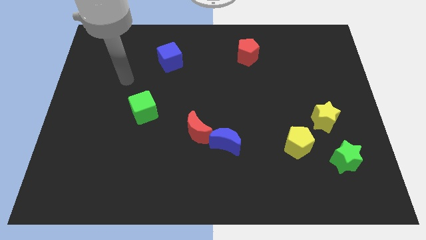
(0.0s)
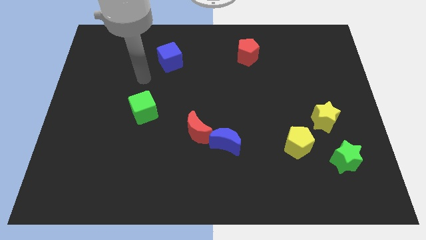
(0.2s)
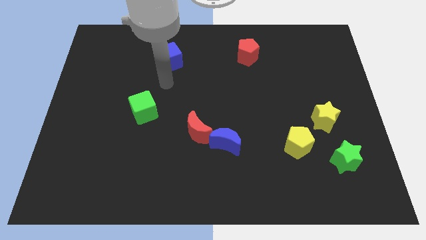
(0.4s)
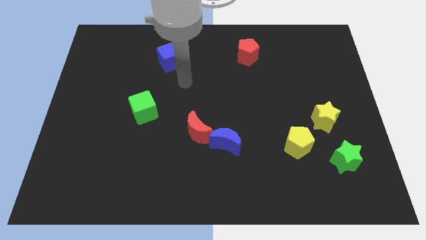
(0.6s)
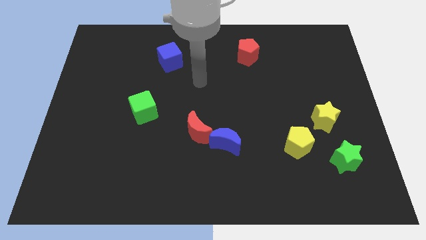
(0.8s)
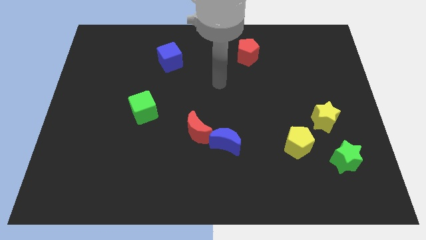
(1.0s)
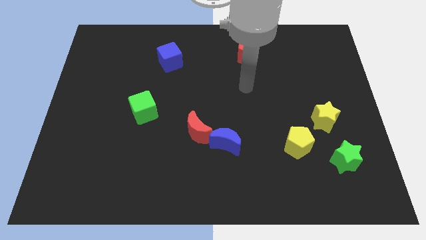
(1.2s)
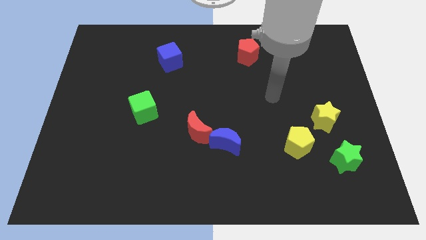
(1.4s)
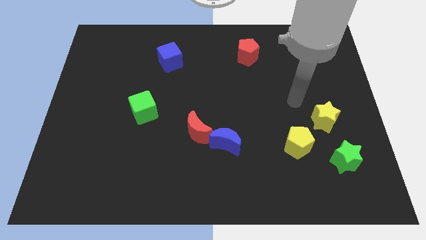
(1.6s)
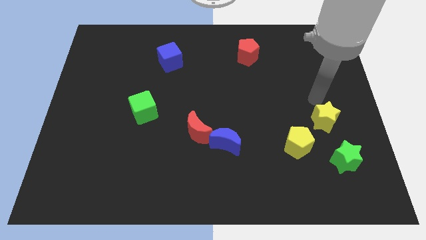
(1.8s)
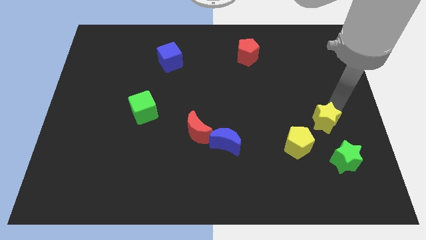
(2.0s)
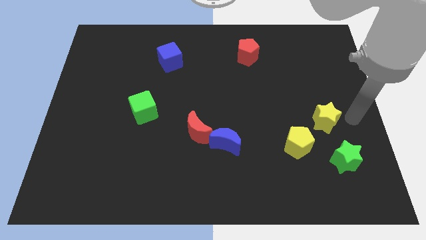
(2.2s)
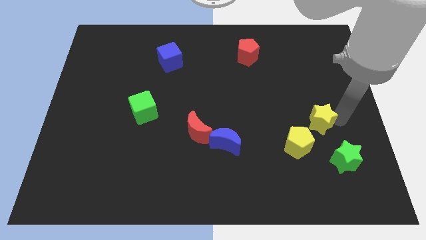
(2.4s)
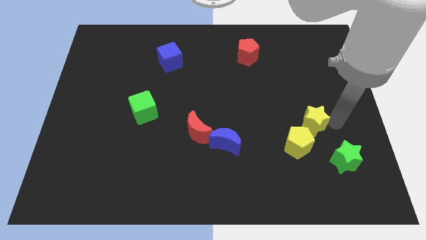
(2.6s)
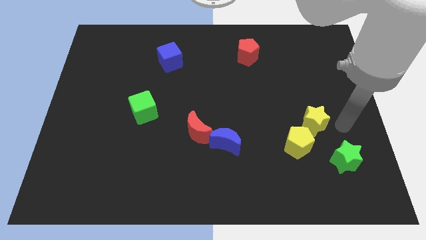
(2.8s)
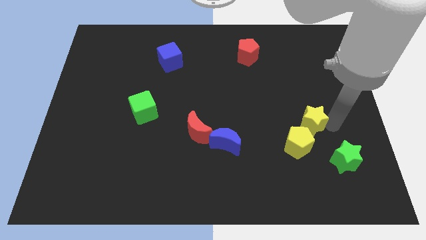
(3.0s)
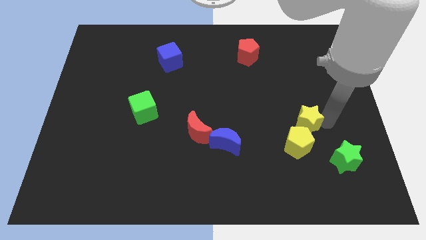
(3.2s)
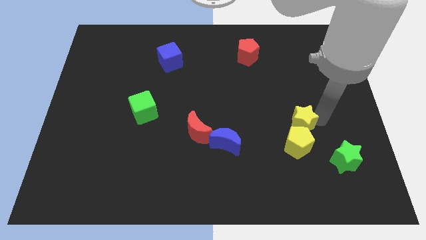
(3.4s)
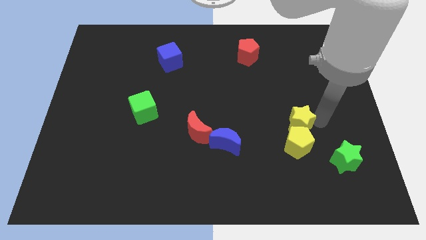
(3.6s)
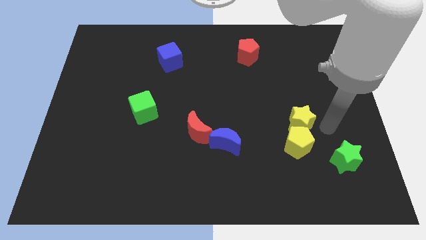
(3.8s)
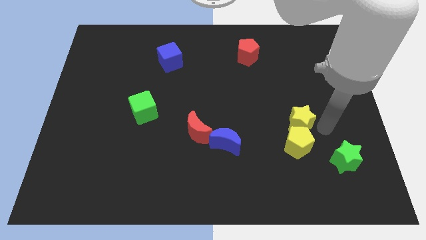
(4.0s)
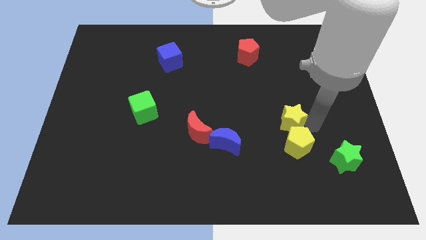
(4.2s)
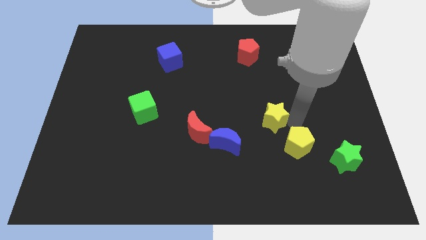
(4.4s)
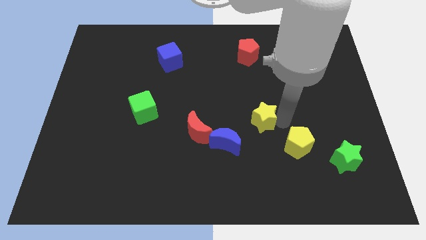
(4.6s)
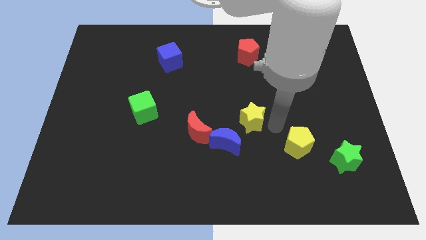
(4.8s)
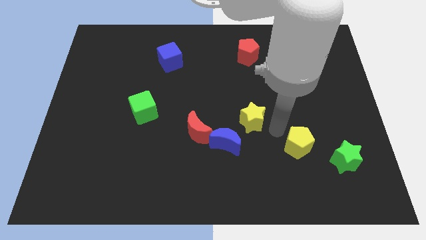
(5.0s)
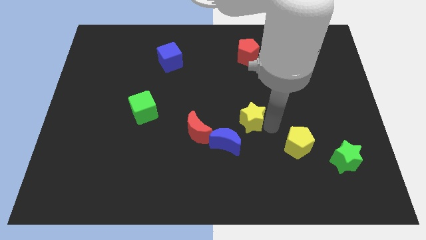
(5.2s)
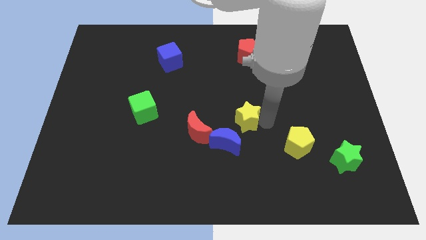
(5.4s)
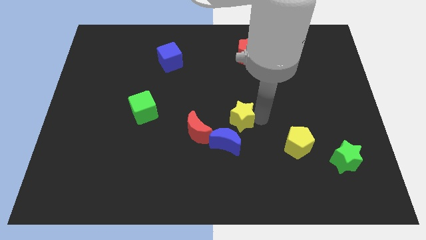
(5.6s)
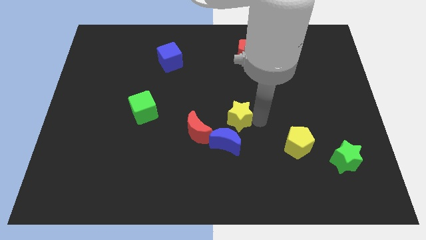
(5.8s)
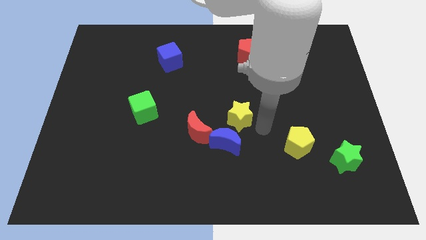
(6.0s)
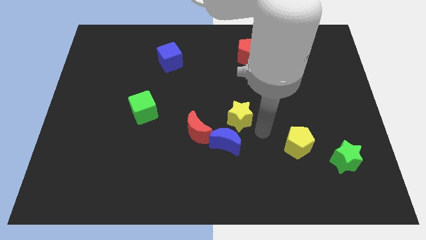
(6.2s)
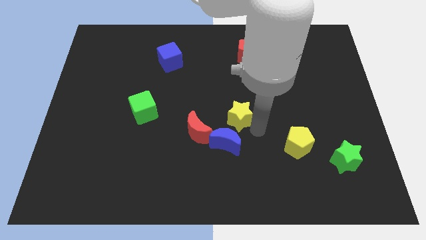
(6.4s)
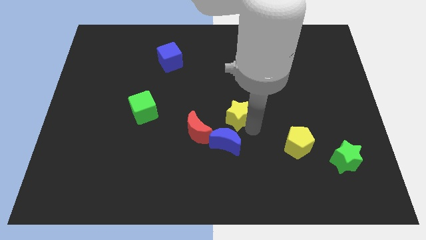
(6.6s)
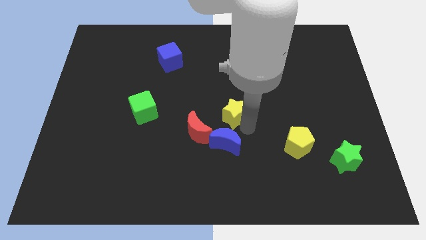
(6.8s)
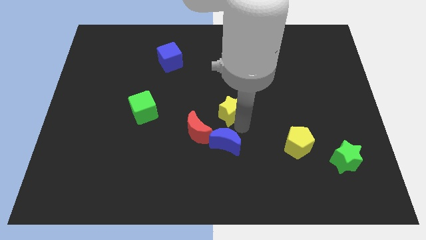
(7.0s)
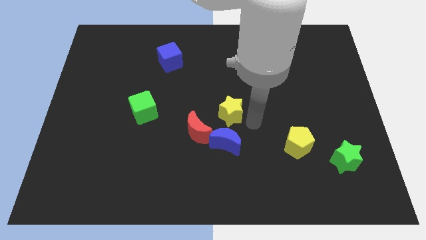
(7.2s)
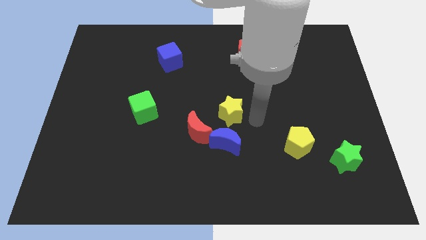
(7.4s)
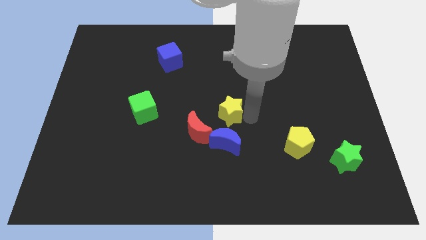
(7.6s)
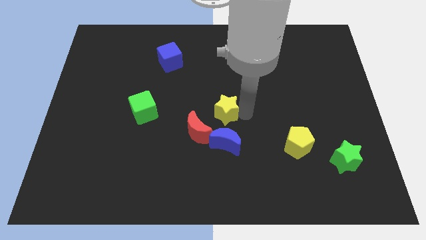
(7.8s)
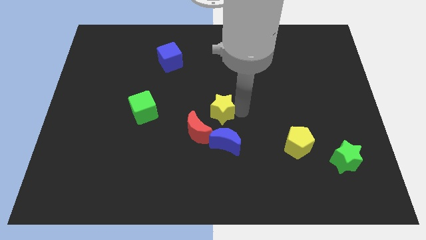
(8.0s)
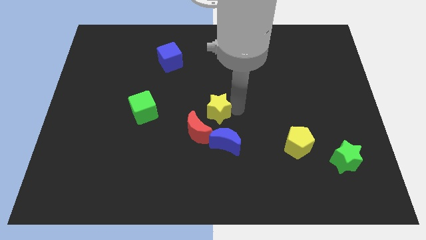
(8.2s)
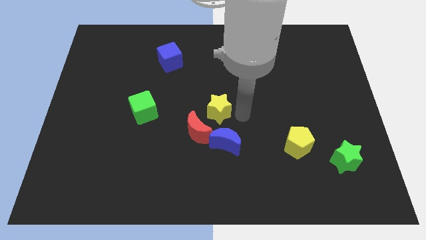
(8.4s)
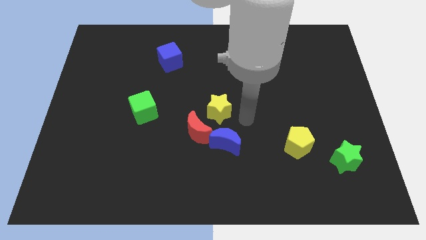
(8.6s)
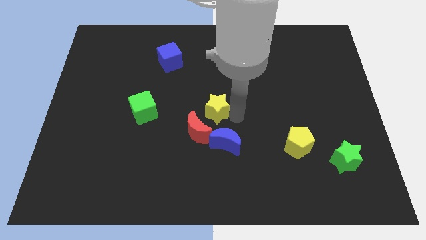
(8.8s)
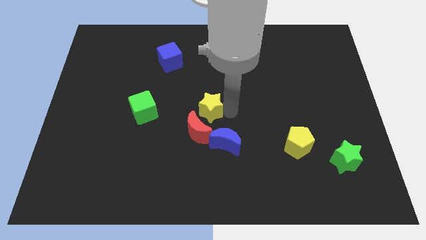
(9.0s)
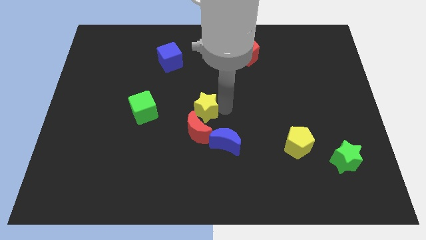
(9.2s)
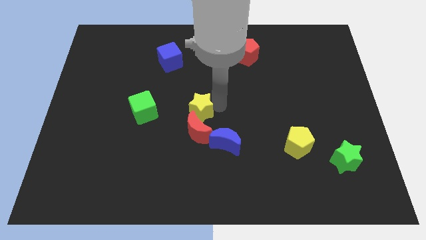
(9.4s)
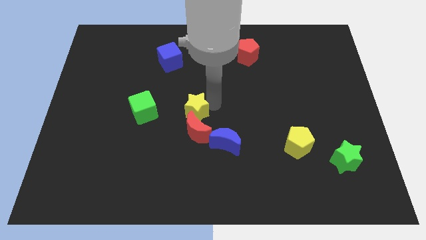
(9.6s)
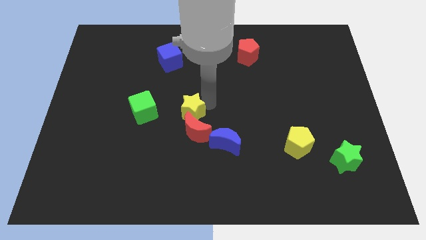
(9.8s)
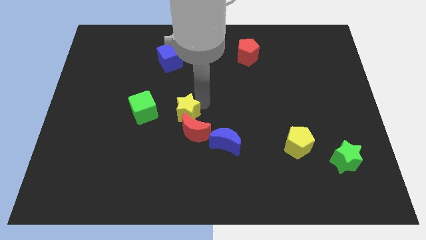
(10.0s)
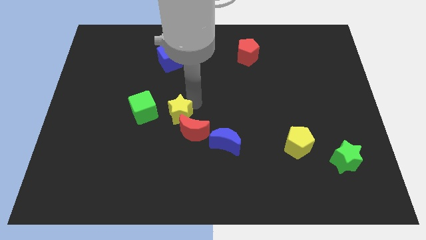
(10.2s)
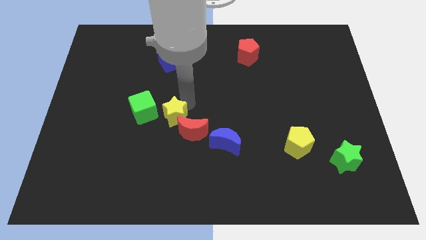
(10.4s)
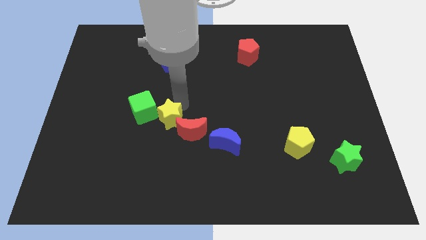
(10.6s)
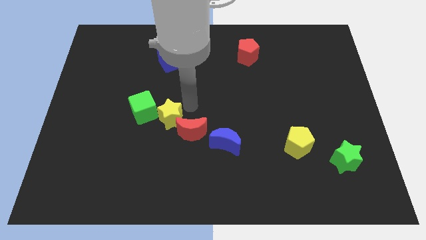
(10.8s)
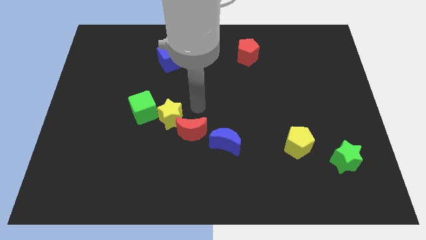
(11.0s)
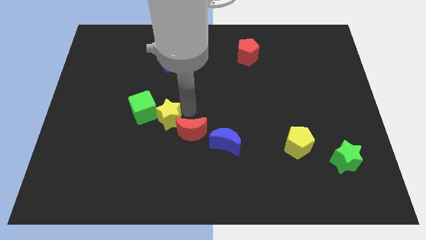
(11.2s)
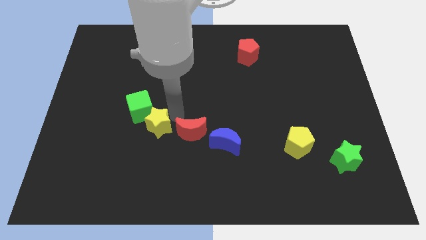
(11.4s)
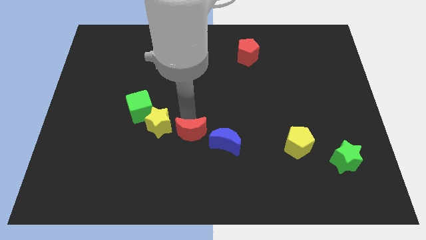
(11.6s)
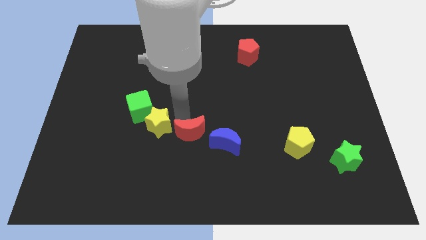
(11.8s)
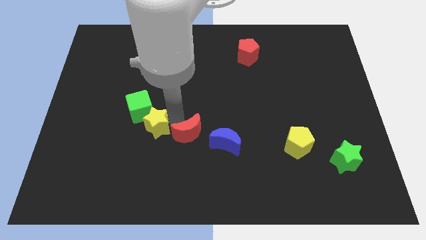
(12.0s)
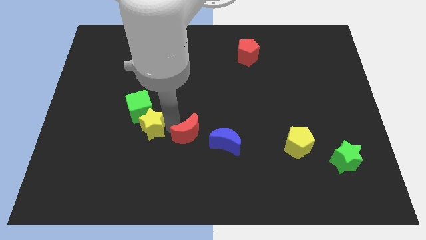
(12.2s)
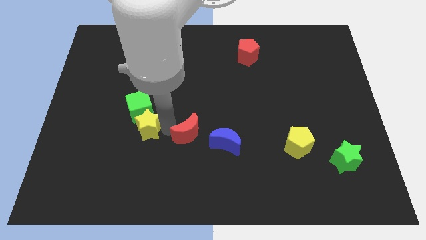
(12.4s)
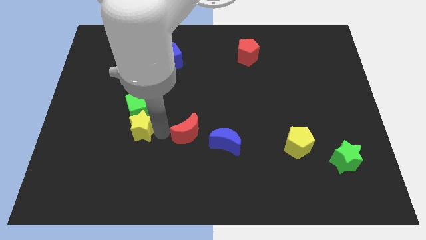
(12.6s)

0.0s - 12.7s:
push the yellow star to the bottom left side of the green cube

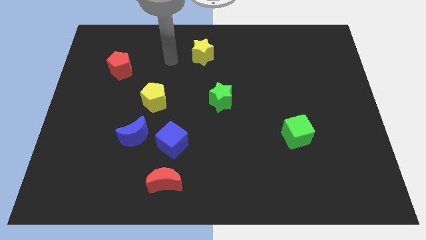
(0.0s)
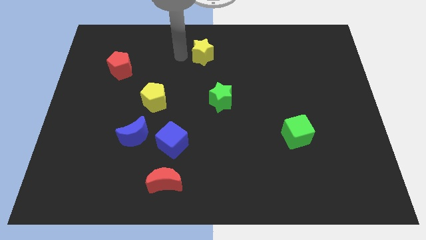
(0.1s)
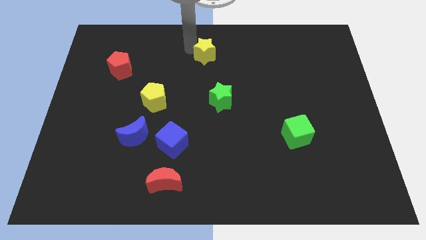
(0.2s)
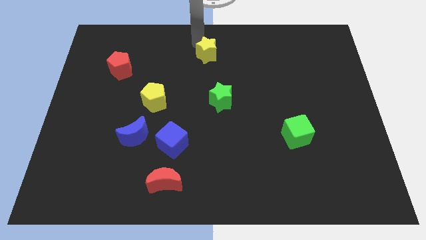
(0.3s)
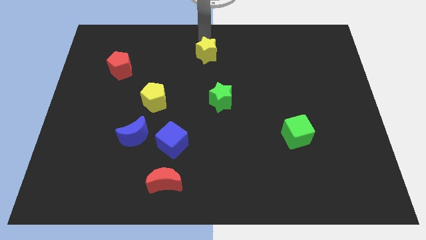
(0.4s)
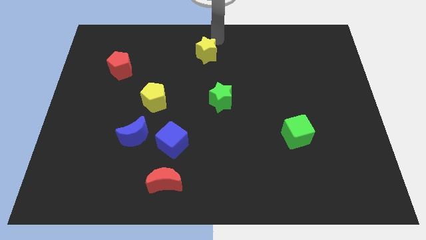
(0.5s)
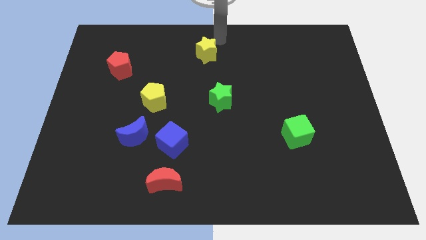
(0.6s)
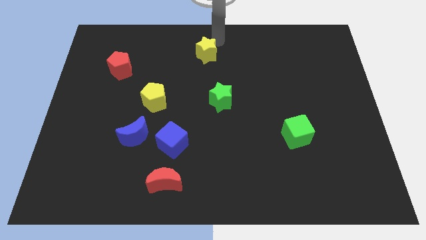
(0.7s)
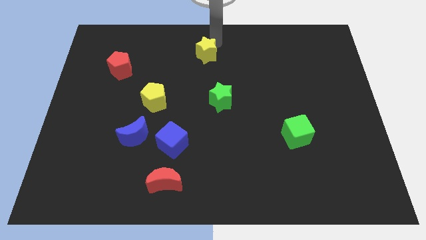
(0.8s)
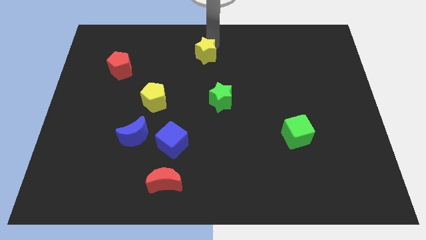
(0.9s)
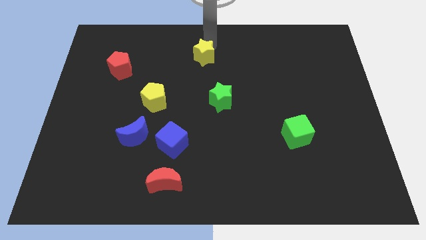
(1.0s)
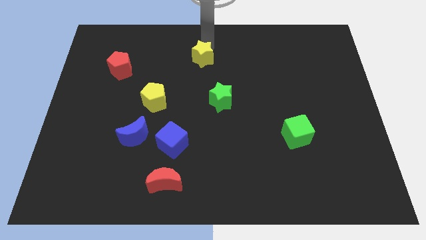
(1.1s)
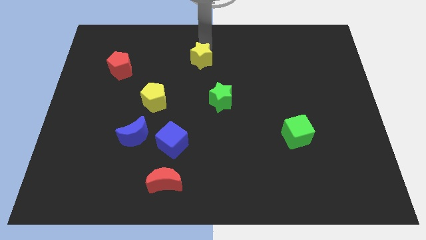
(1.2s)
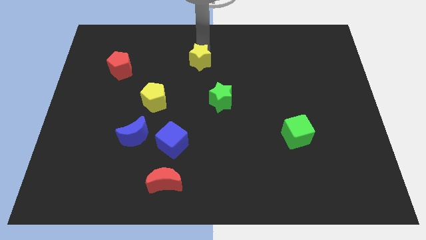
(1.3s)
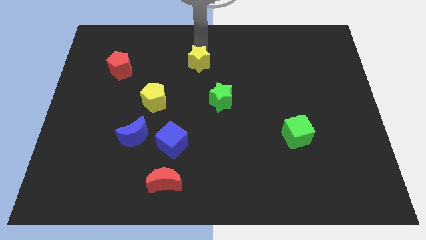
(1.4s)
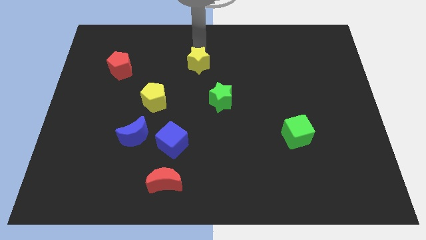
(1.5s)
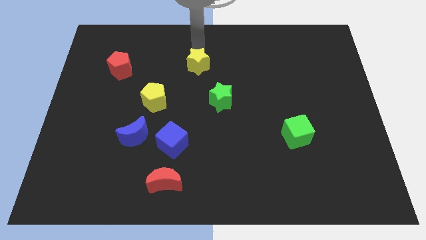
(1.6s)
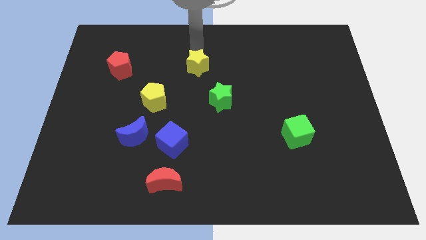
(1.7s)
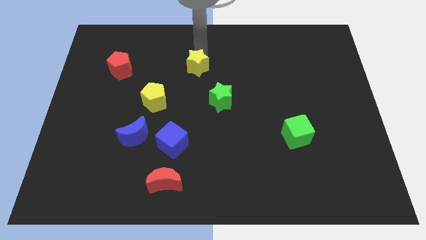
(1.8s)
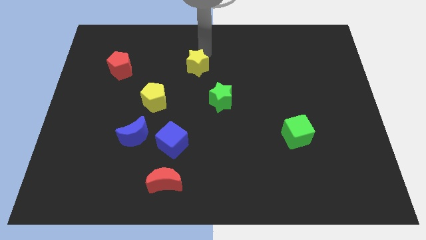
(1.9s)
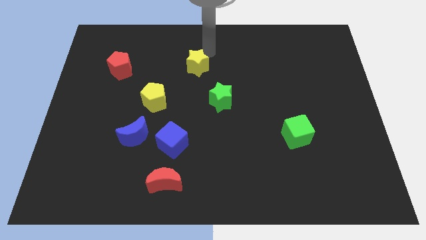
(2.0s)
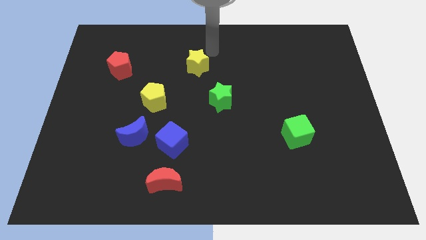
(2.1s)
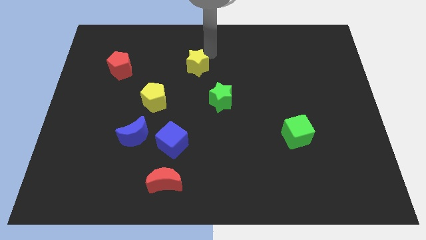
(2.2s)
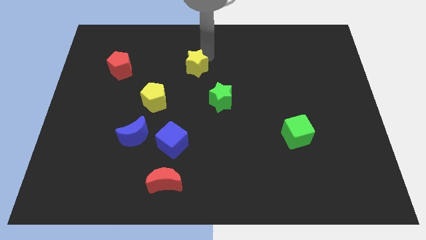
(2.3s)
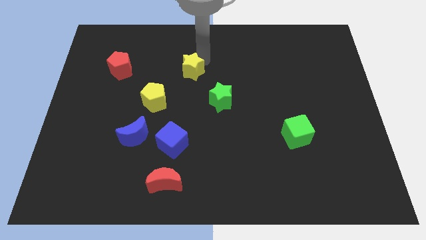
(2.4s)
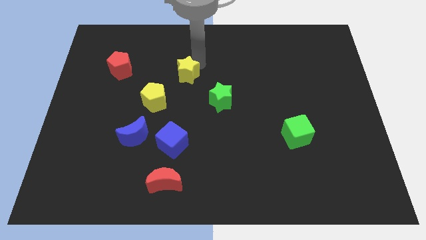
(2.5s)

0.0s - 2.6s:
move the yellow star to the top right of the yellow pentagon
